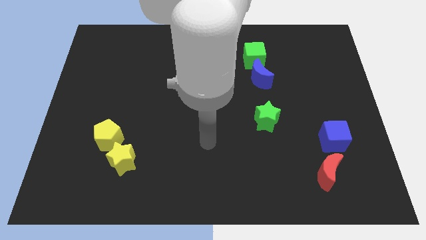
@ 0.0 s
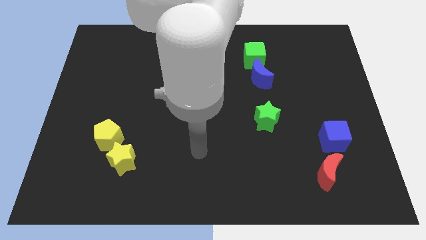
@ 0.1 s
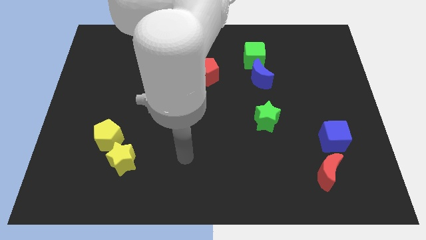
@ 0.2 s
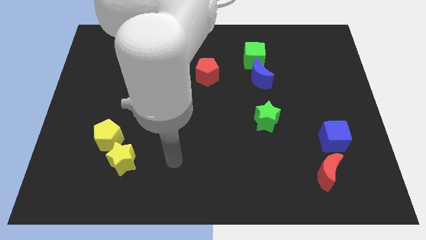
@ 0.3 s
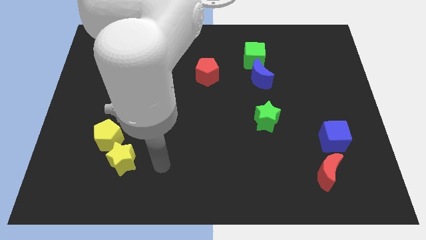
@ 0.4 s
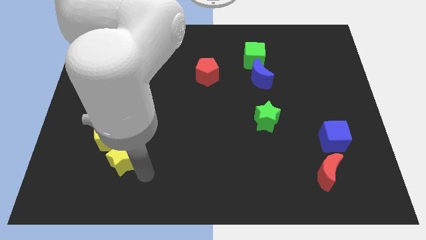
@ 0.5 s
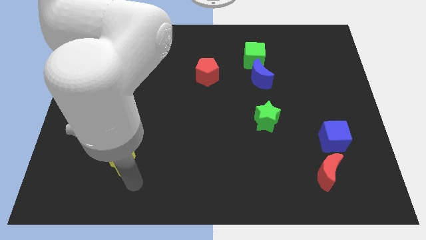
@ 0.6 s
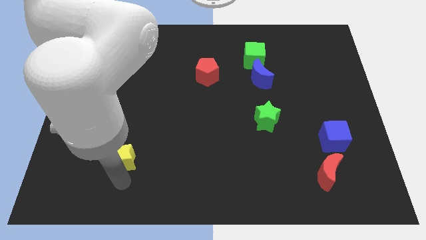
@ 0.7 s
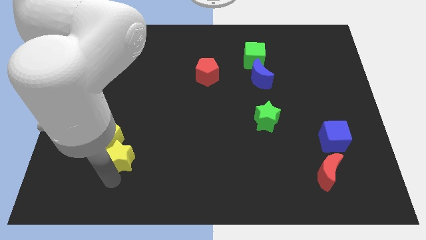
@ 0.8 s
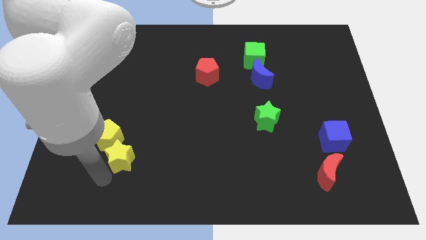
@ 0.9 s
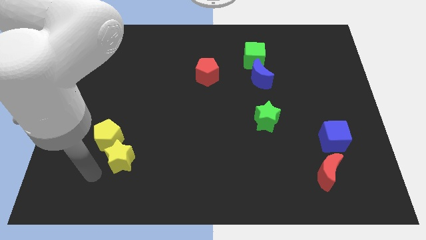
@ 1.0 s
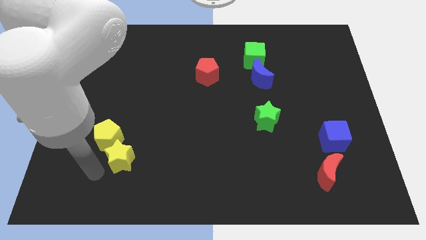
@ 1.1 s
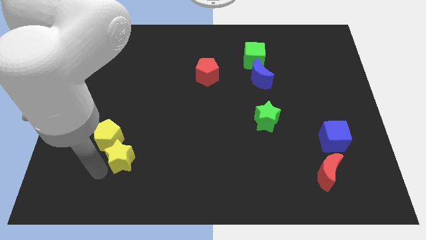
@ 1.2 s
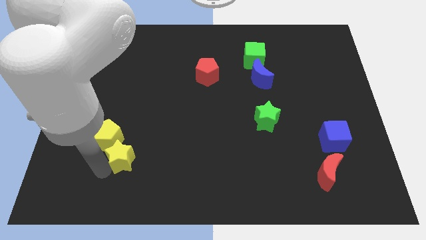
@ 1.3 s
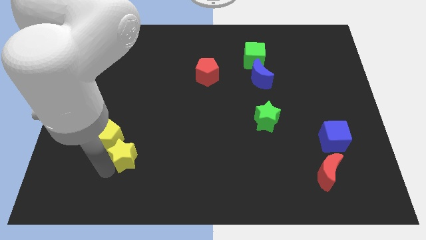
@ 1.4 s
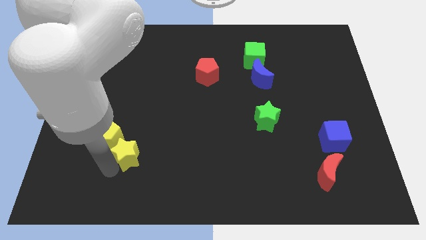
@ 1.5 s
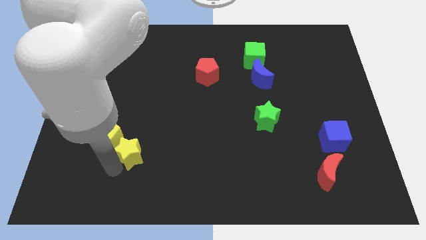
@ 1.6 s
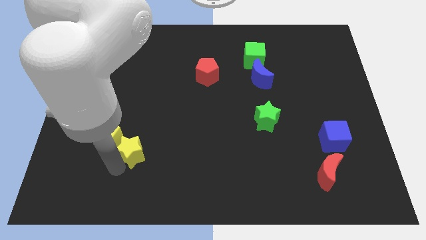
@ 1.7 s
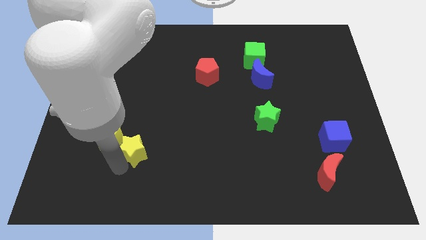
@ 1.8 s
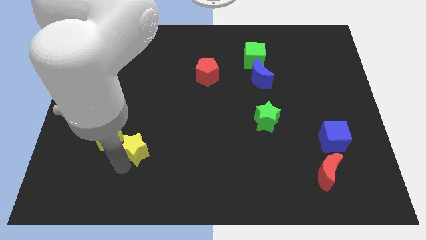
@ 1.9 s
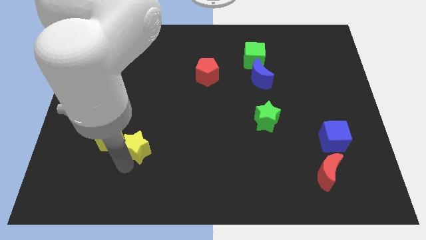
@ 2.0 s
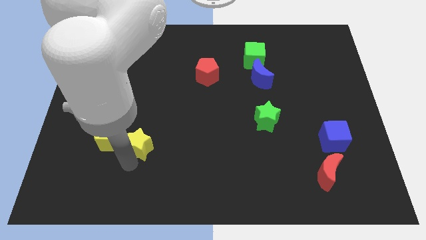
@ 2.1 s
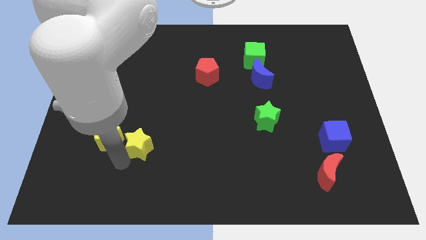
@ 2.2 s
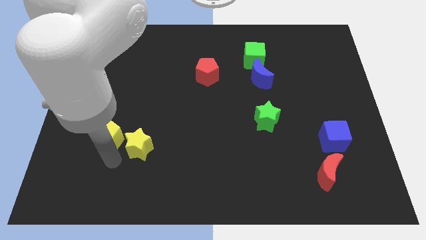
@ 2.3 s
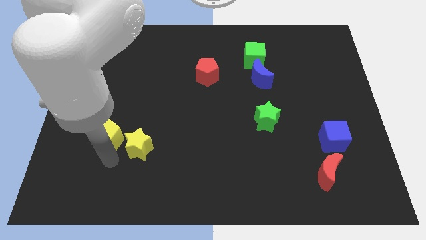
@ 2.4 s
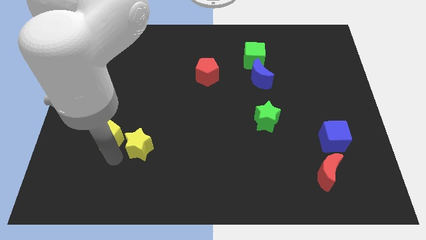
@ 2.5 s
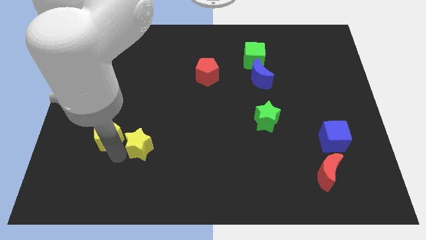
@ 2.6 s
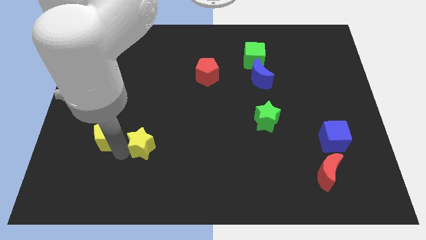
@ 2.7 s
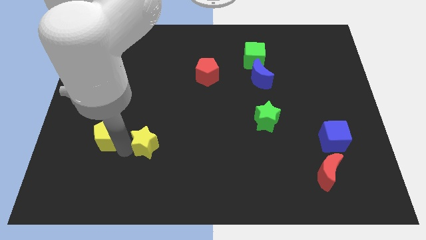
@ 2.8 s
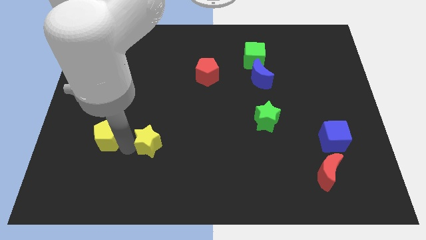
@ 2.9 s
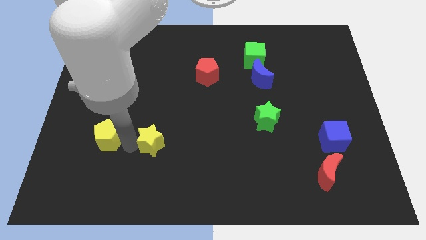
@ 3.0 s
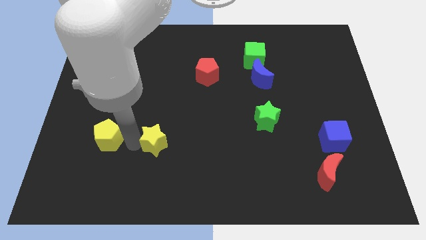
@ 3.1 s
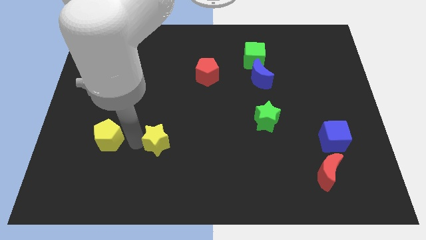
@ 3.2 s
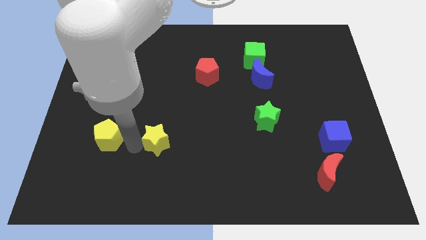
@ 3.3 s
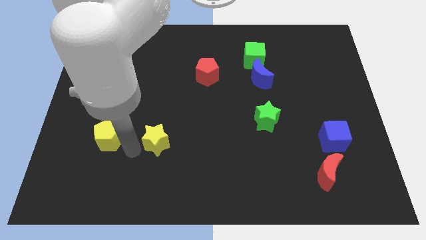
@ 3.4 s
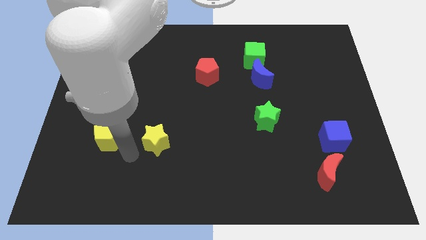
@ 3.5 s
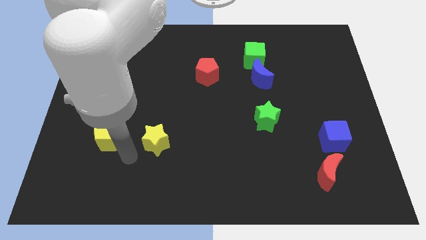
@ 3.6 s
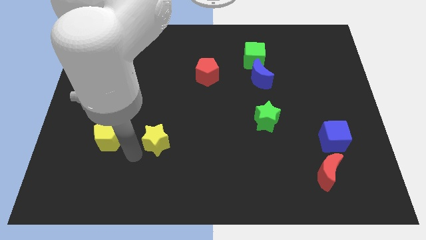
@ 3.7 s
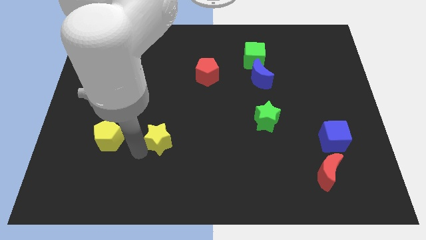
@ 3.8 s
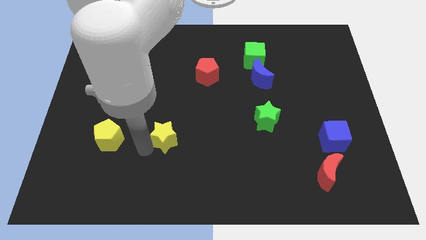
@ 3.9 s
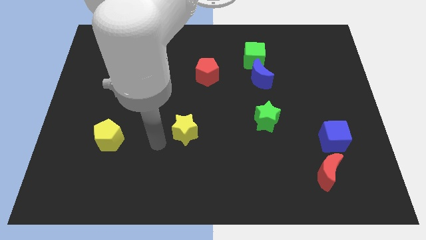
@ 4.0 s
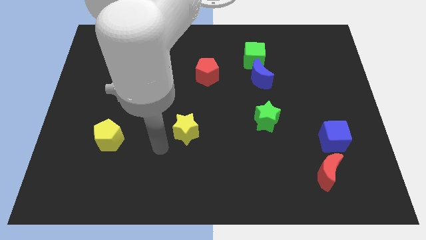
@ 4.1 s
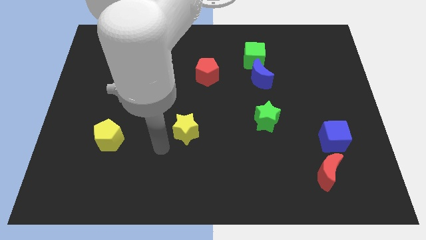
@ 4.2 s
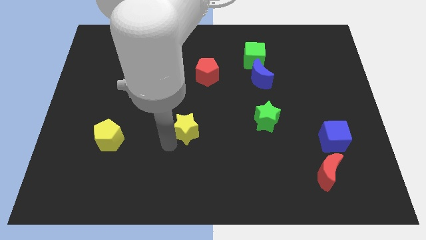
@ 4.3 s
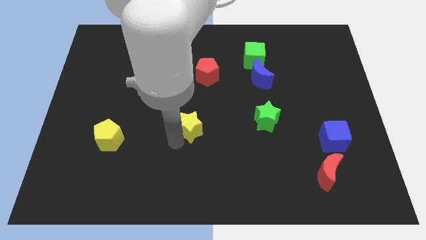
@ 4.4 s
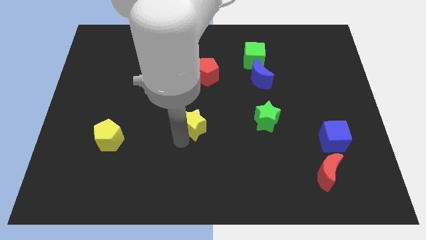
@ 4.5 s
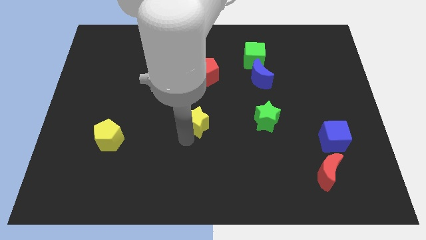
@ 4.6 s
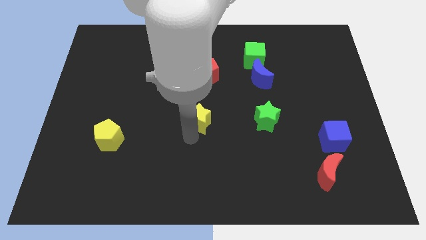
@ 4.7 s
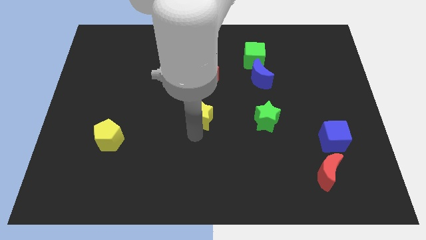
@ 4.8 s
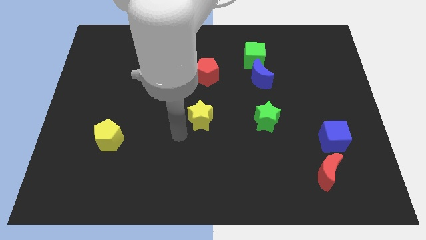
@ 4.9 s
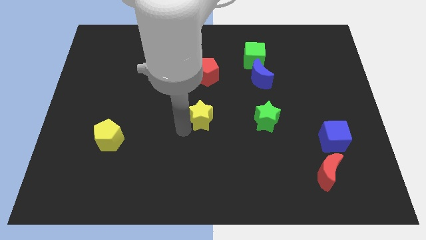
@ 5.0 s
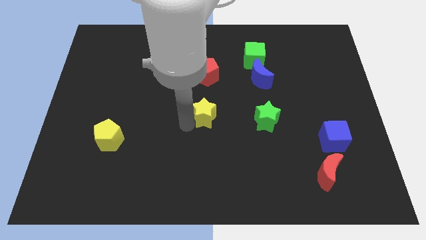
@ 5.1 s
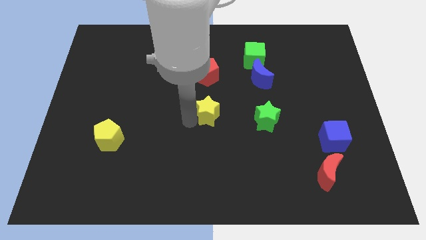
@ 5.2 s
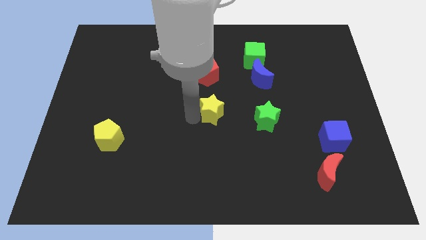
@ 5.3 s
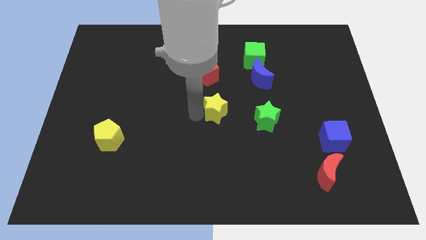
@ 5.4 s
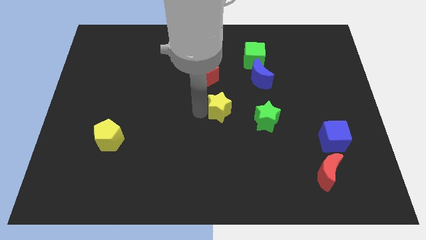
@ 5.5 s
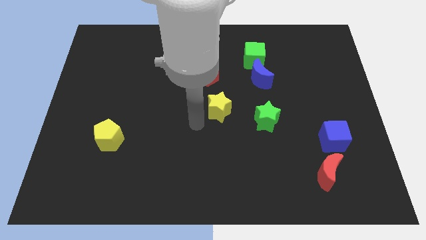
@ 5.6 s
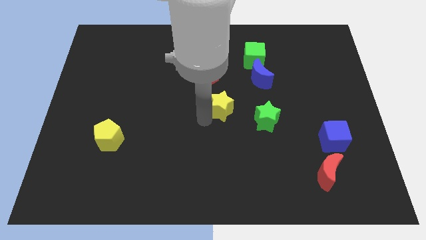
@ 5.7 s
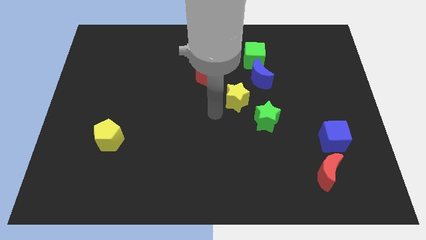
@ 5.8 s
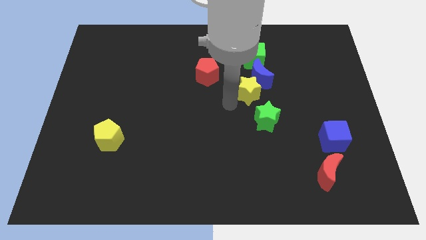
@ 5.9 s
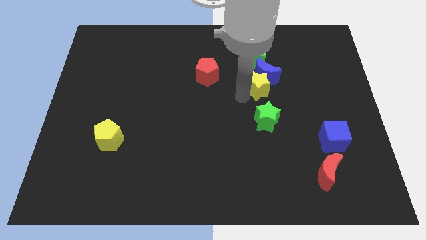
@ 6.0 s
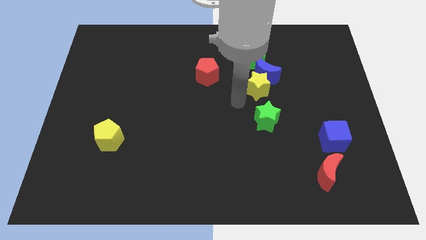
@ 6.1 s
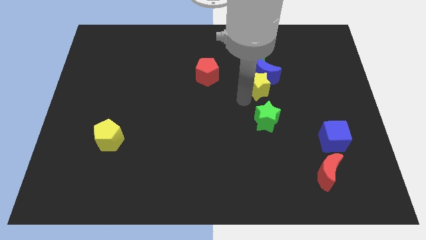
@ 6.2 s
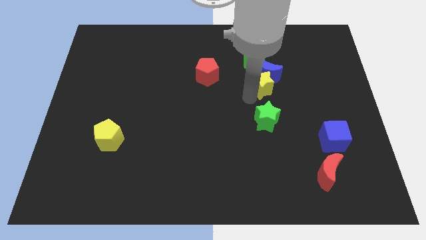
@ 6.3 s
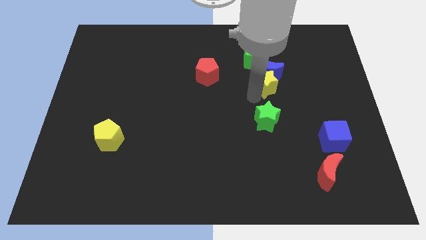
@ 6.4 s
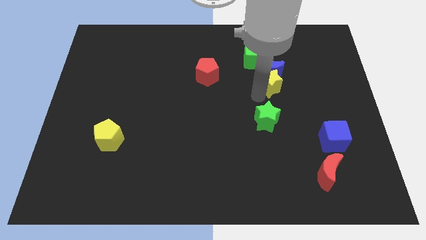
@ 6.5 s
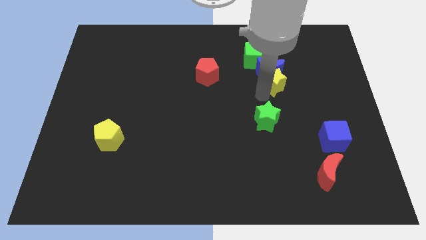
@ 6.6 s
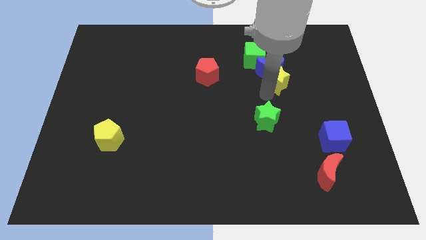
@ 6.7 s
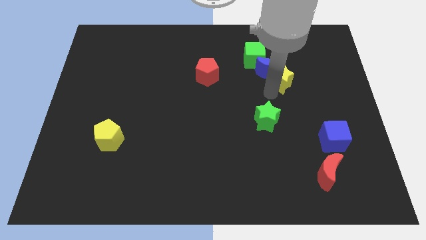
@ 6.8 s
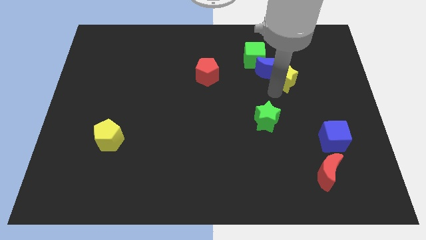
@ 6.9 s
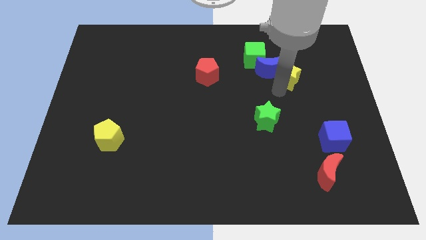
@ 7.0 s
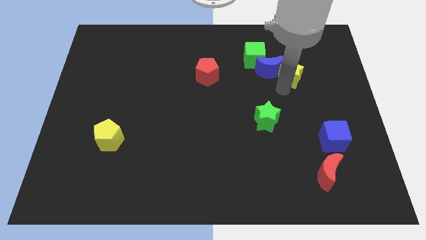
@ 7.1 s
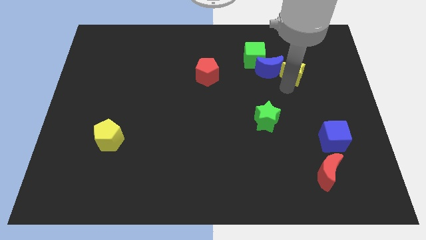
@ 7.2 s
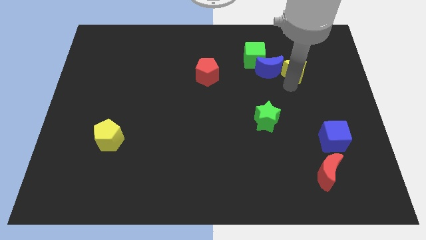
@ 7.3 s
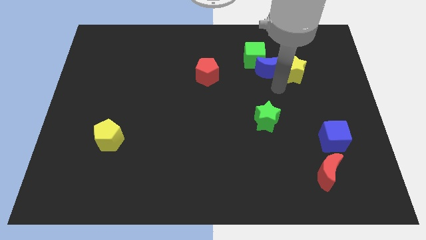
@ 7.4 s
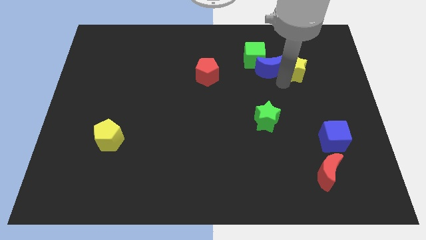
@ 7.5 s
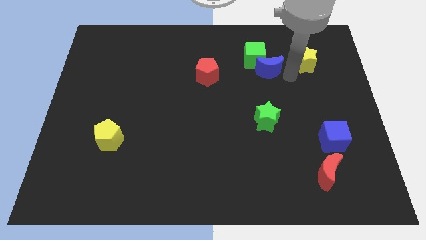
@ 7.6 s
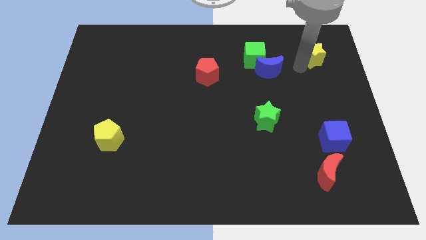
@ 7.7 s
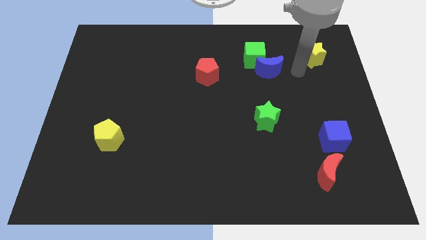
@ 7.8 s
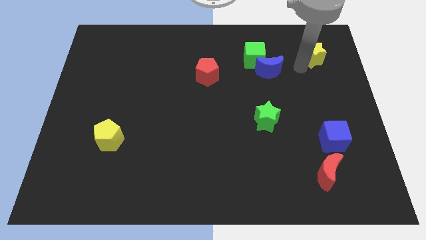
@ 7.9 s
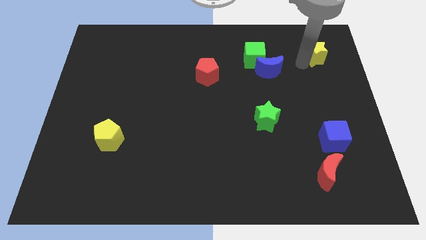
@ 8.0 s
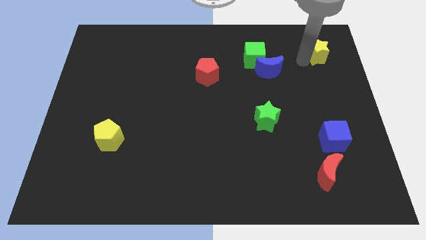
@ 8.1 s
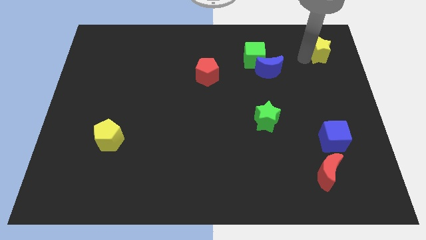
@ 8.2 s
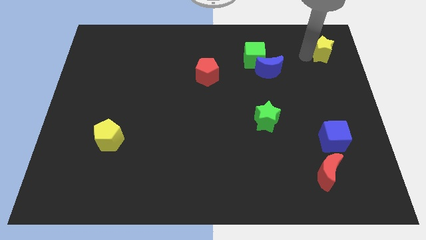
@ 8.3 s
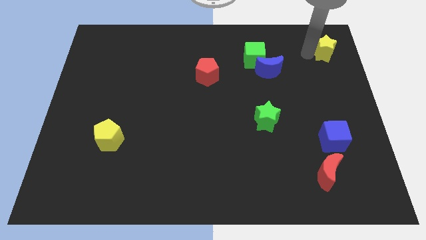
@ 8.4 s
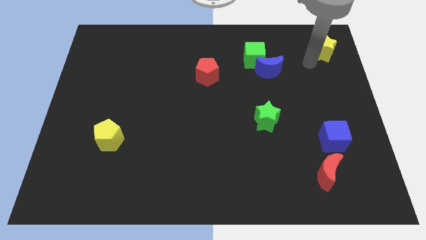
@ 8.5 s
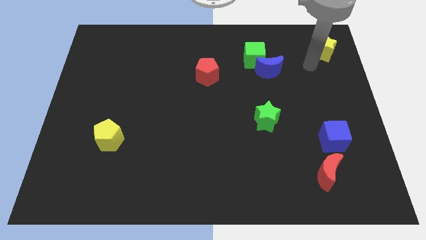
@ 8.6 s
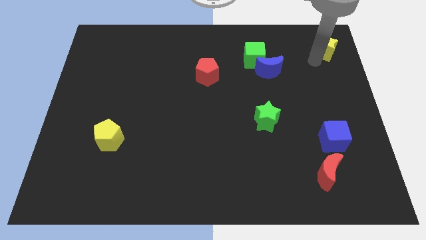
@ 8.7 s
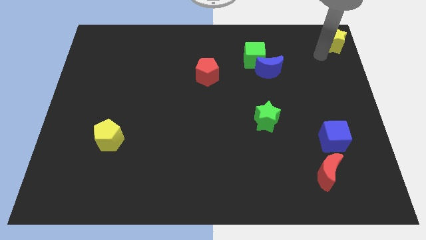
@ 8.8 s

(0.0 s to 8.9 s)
put the yellow star to the top right
